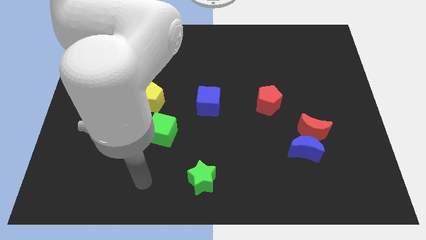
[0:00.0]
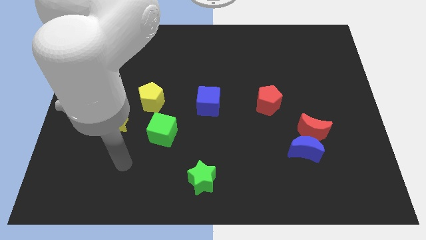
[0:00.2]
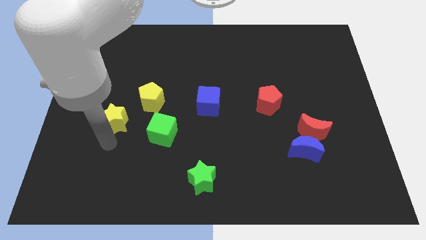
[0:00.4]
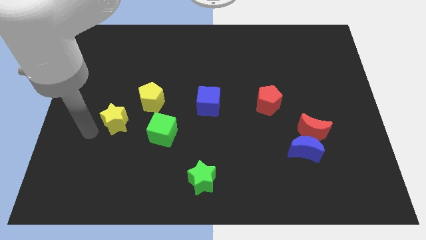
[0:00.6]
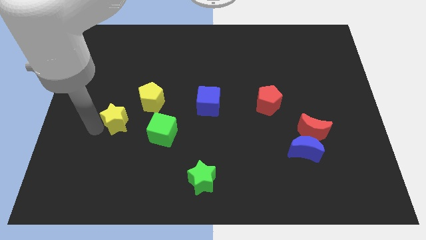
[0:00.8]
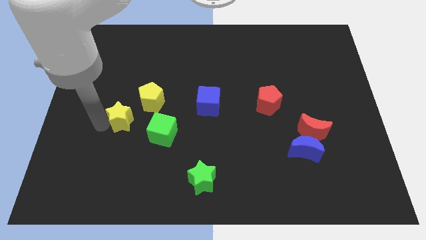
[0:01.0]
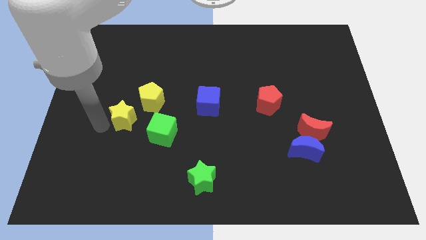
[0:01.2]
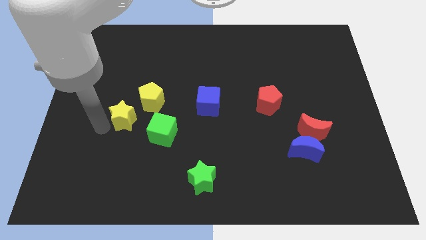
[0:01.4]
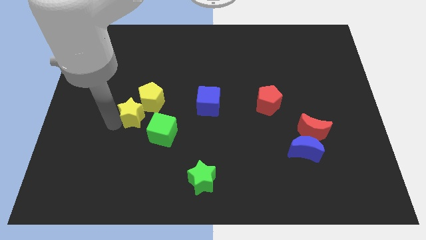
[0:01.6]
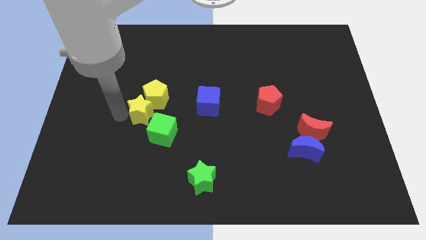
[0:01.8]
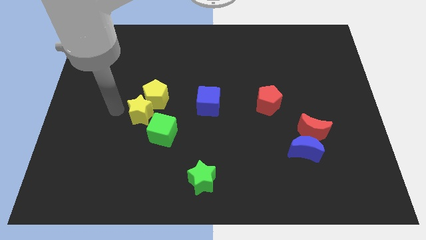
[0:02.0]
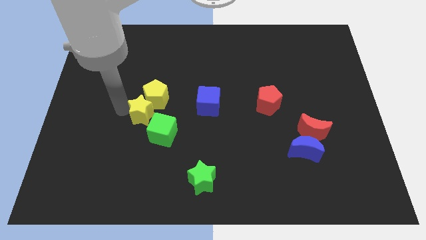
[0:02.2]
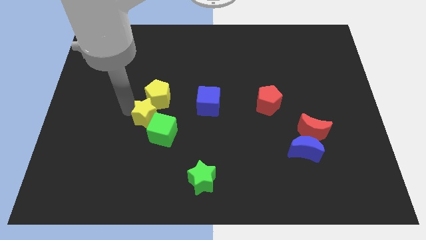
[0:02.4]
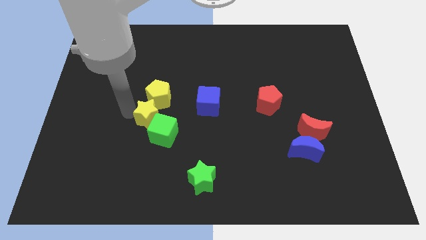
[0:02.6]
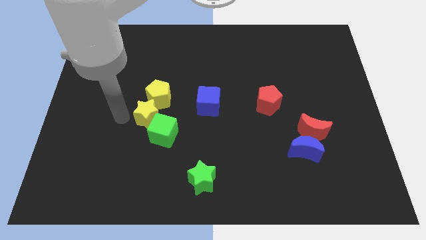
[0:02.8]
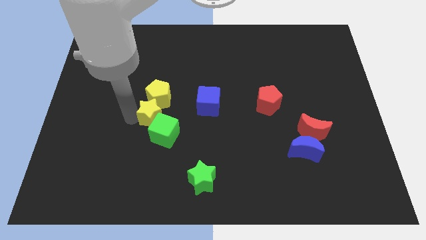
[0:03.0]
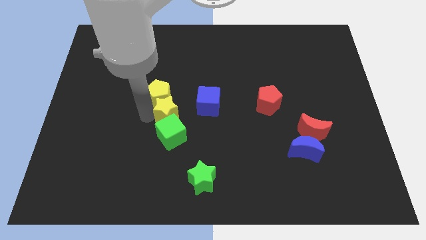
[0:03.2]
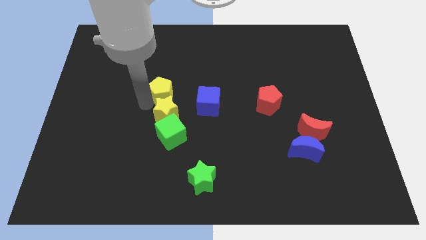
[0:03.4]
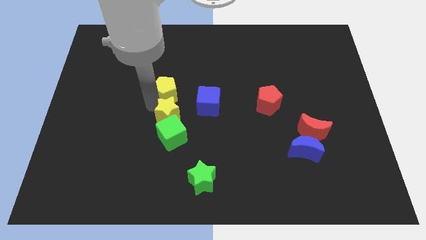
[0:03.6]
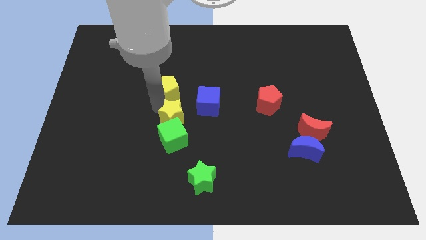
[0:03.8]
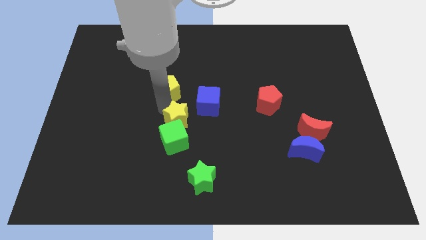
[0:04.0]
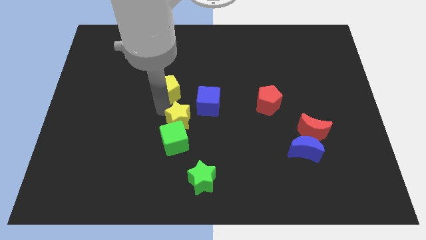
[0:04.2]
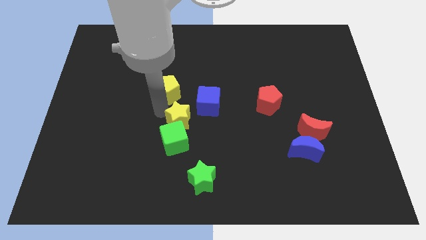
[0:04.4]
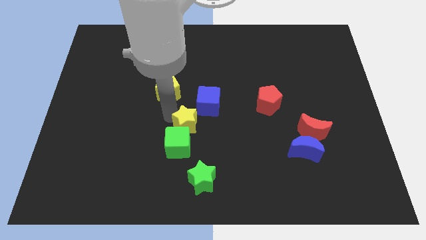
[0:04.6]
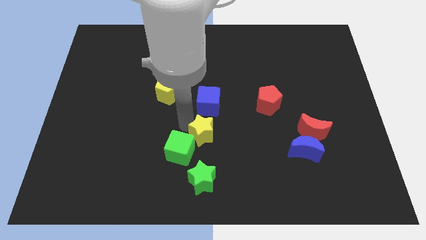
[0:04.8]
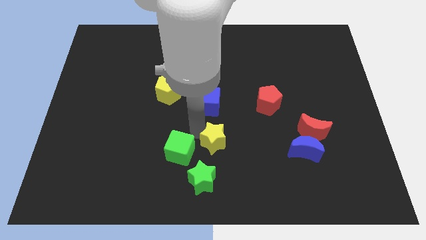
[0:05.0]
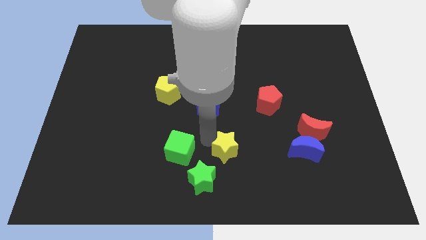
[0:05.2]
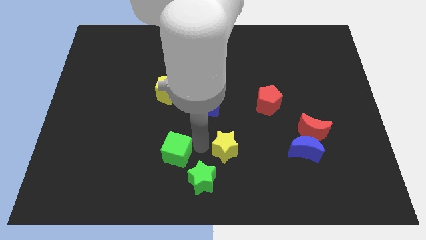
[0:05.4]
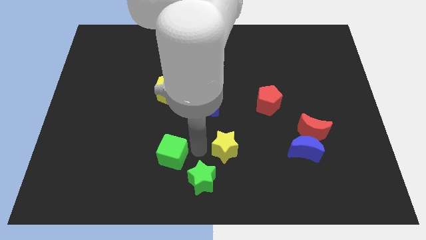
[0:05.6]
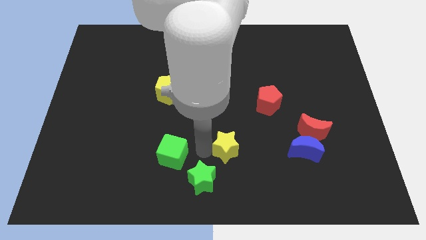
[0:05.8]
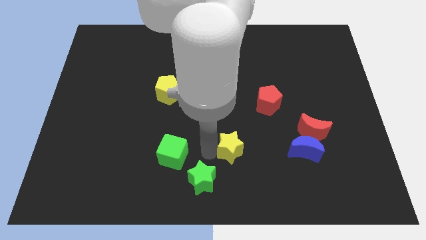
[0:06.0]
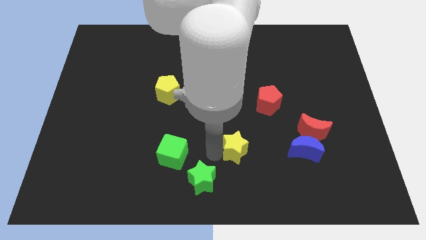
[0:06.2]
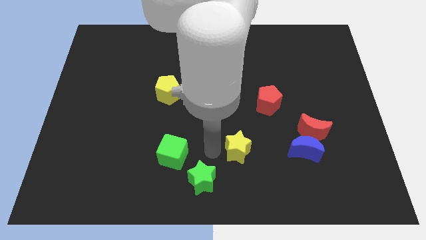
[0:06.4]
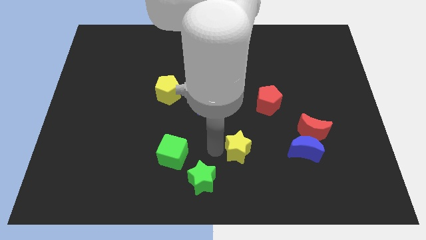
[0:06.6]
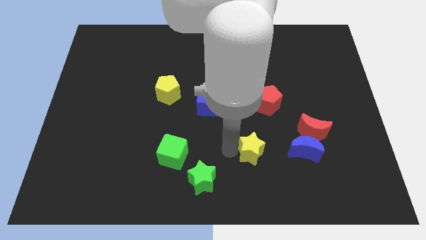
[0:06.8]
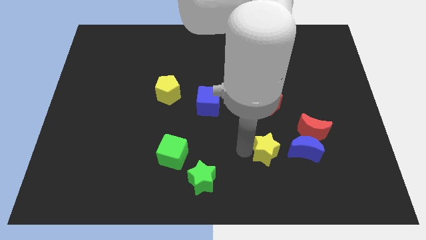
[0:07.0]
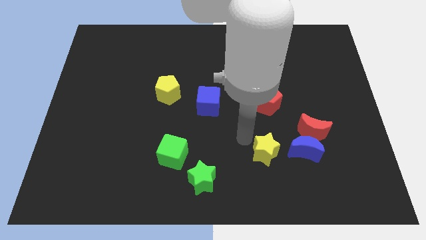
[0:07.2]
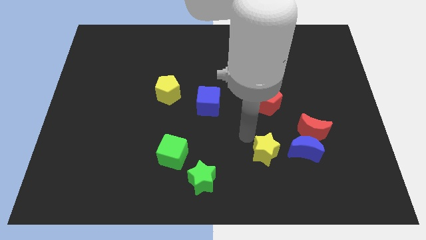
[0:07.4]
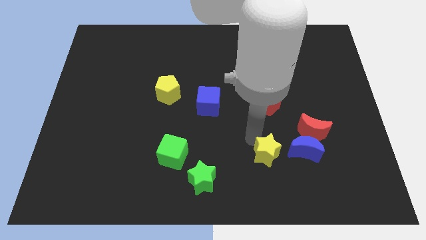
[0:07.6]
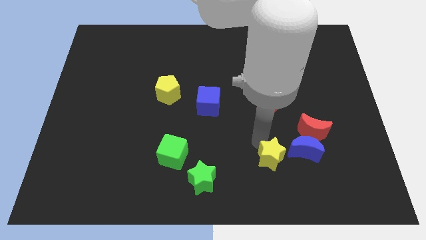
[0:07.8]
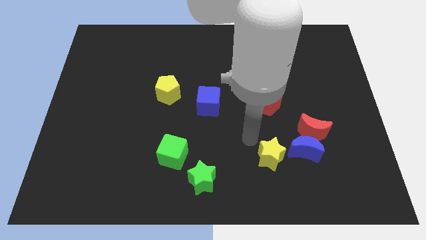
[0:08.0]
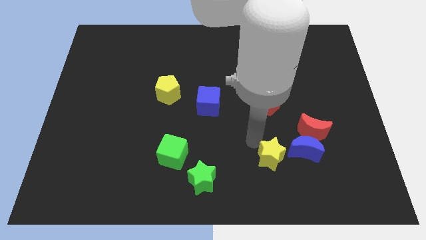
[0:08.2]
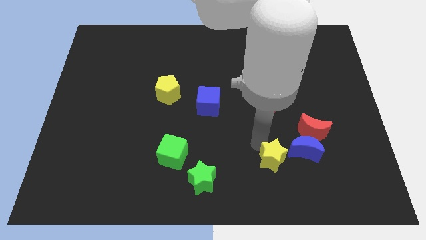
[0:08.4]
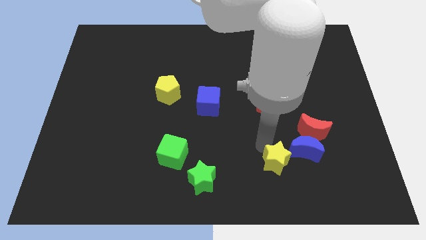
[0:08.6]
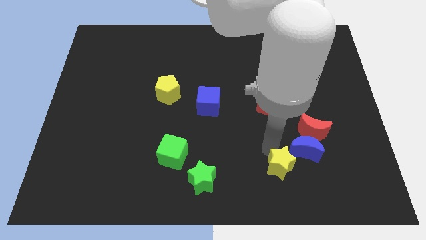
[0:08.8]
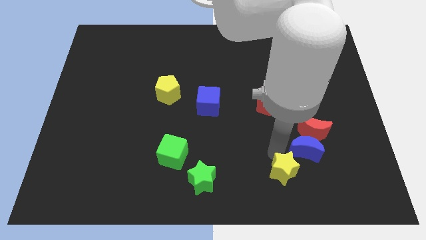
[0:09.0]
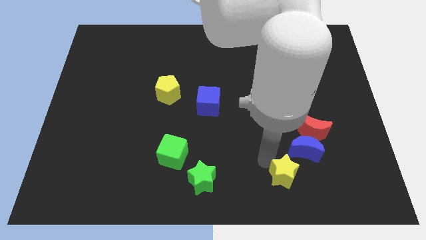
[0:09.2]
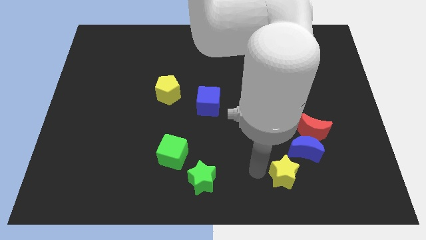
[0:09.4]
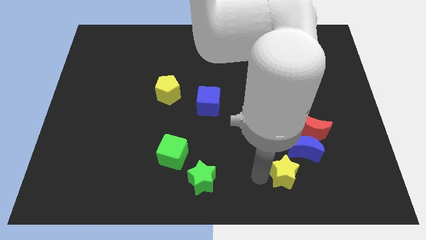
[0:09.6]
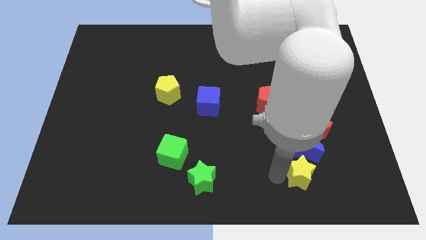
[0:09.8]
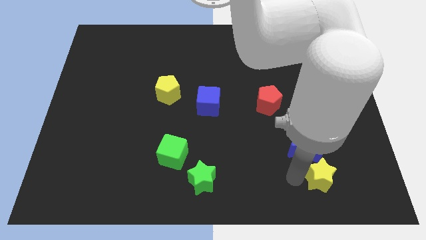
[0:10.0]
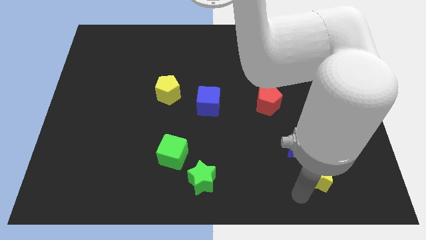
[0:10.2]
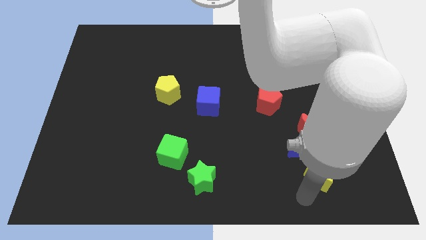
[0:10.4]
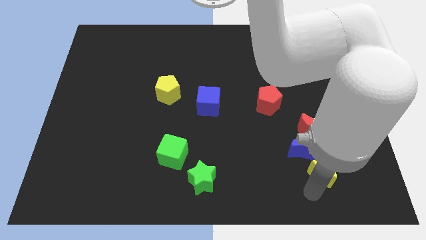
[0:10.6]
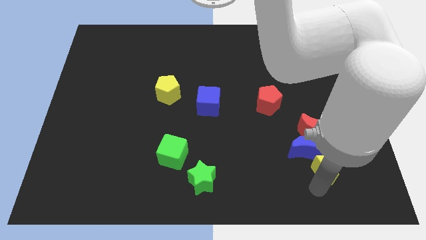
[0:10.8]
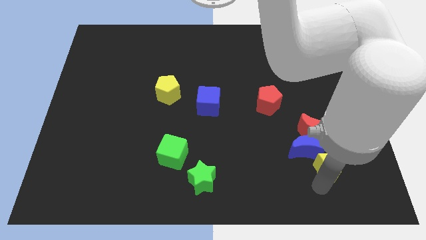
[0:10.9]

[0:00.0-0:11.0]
move the yellow star to the bottom right of the red moon

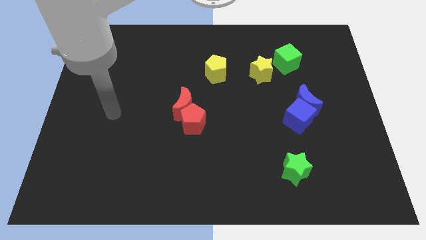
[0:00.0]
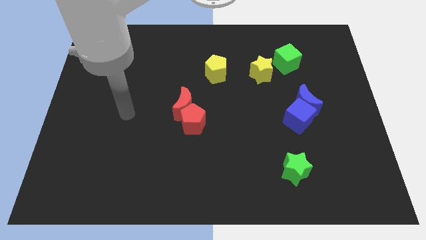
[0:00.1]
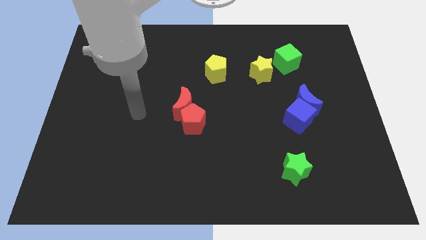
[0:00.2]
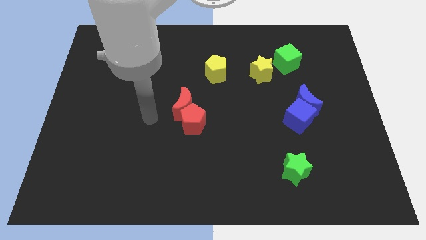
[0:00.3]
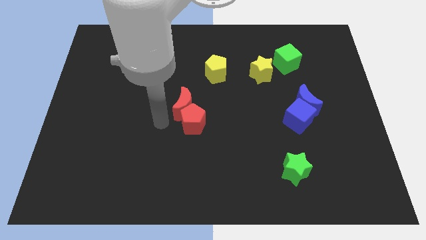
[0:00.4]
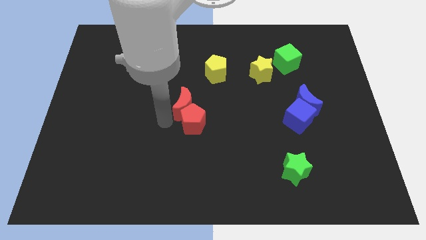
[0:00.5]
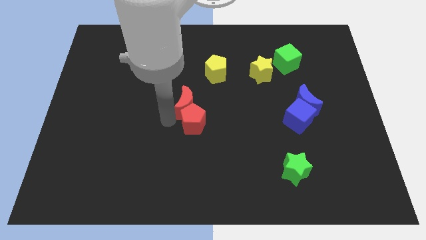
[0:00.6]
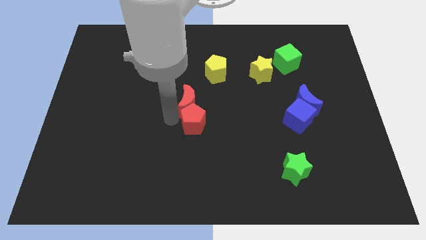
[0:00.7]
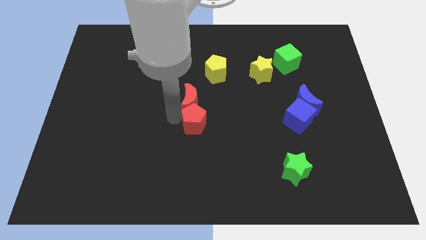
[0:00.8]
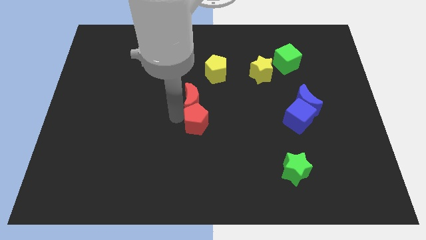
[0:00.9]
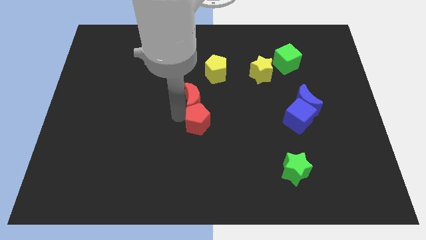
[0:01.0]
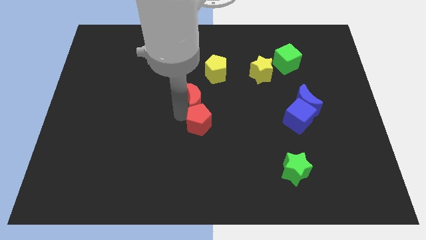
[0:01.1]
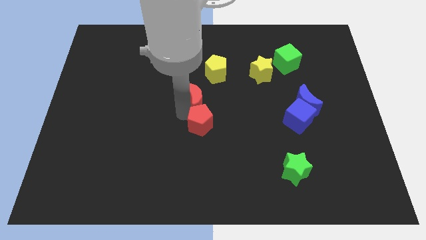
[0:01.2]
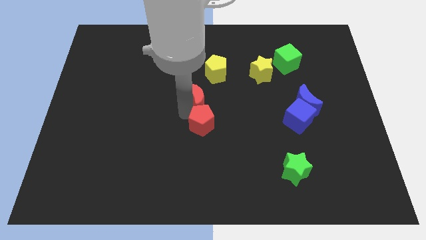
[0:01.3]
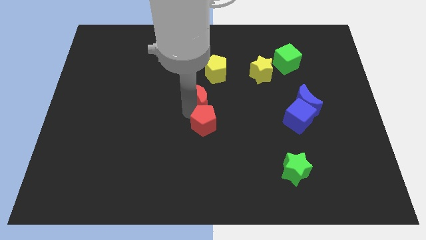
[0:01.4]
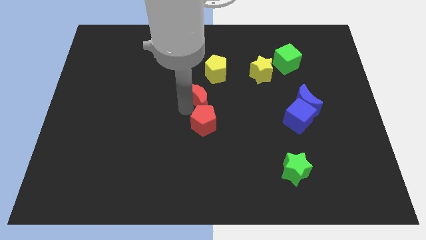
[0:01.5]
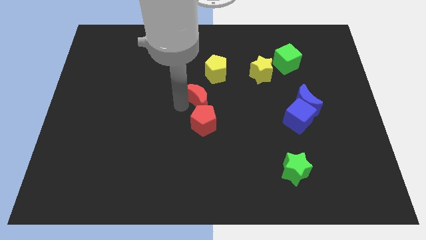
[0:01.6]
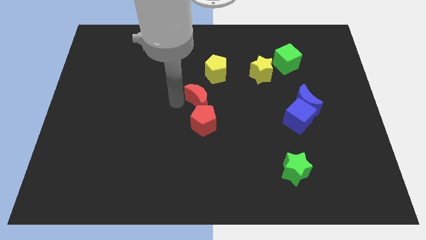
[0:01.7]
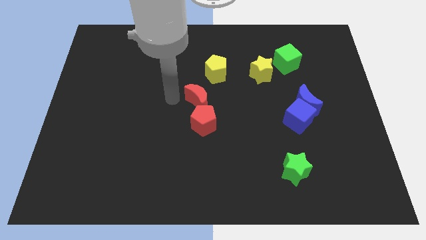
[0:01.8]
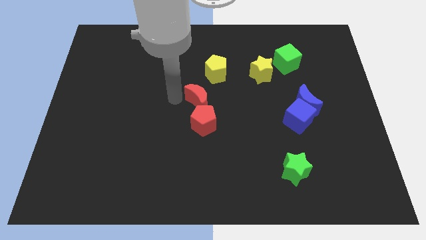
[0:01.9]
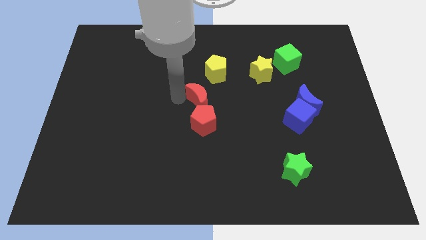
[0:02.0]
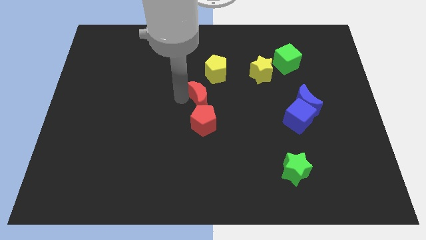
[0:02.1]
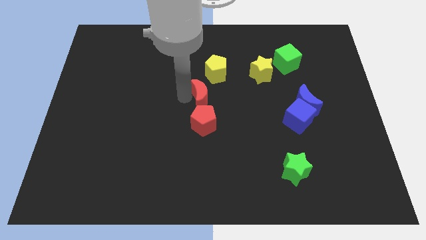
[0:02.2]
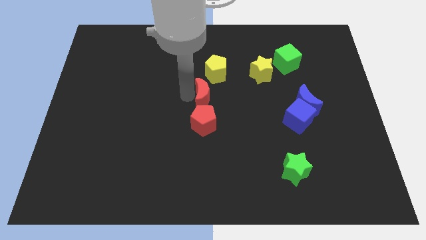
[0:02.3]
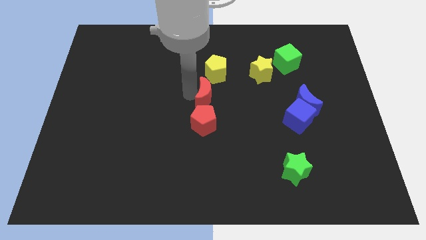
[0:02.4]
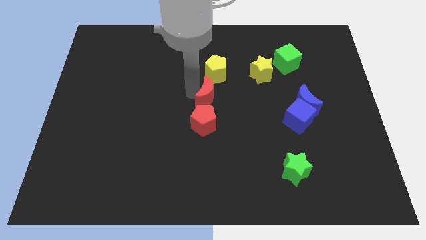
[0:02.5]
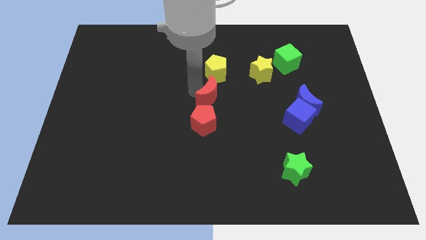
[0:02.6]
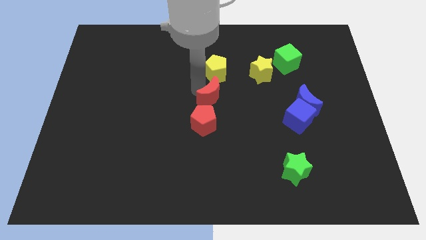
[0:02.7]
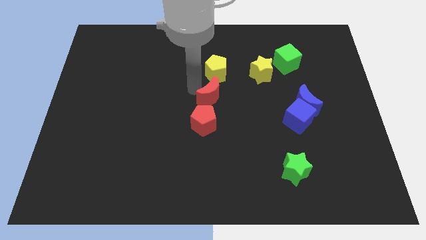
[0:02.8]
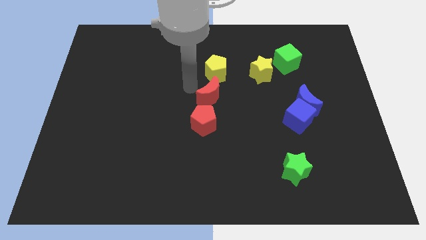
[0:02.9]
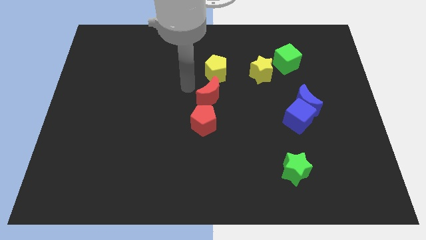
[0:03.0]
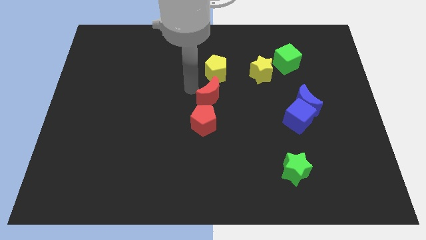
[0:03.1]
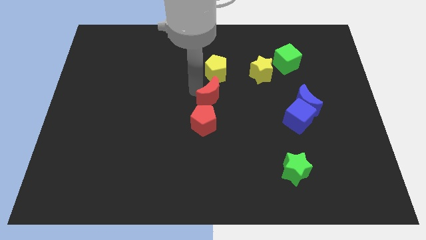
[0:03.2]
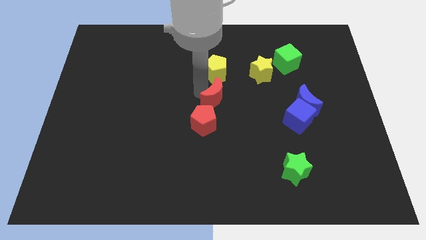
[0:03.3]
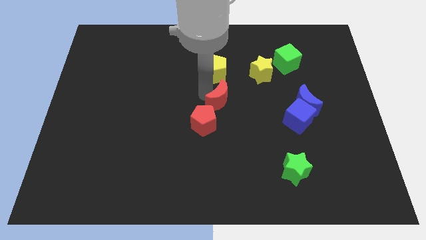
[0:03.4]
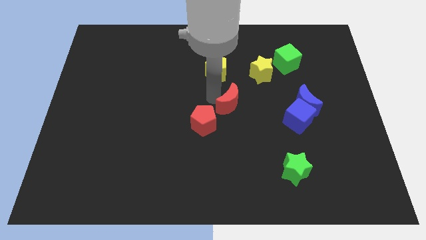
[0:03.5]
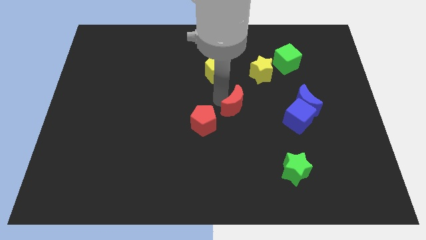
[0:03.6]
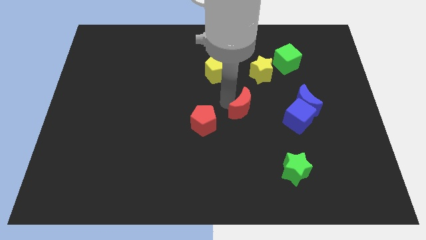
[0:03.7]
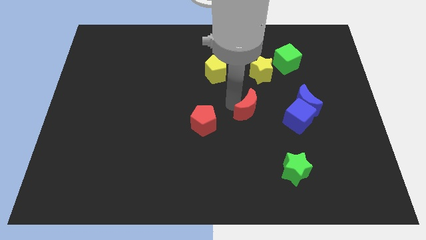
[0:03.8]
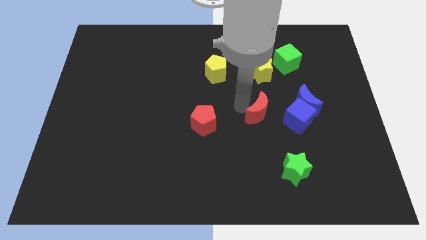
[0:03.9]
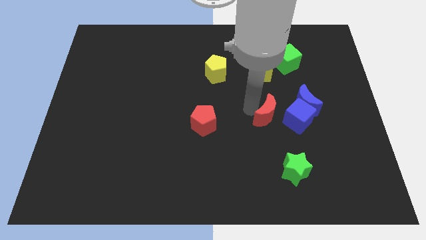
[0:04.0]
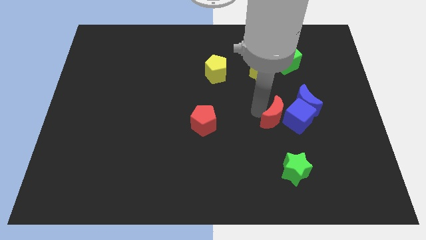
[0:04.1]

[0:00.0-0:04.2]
put the red moon above the green star
